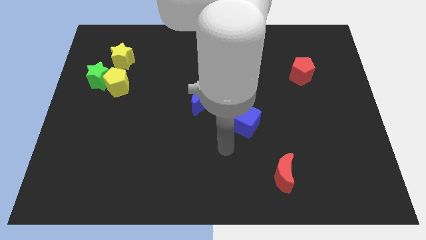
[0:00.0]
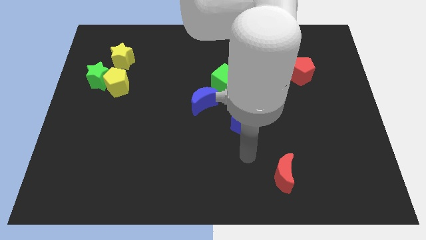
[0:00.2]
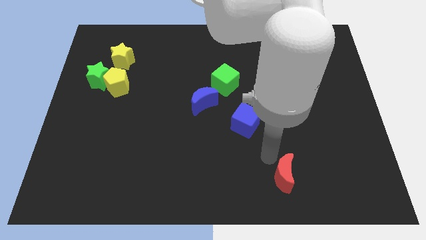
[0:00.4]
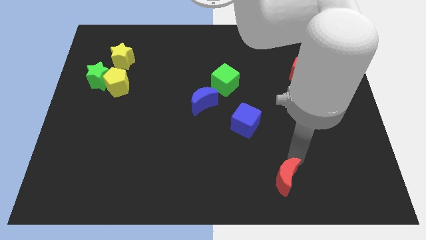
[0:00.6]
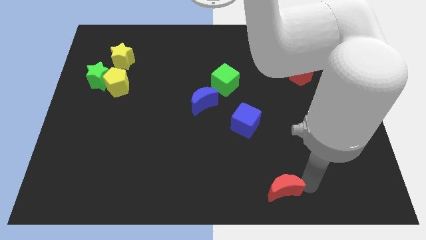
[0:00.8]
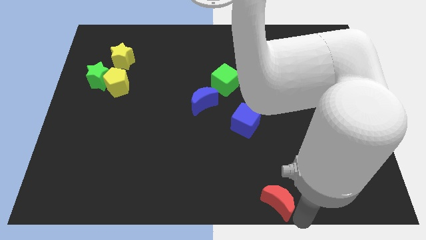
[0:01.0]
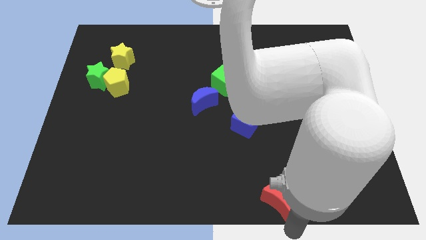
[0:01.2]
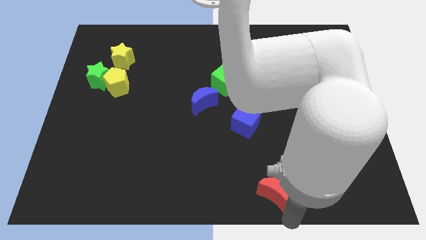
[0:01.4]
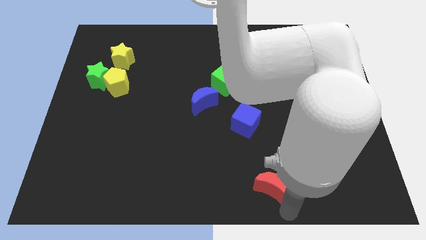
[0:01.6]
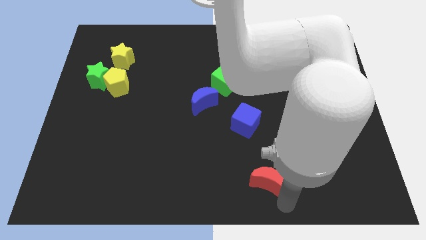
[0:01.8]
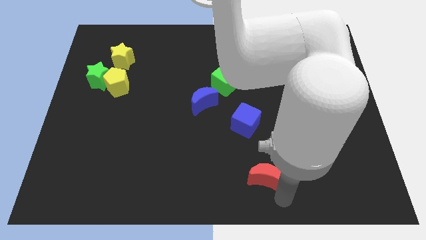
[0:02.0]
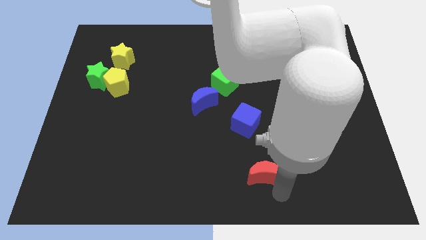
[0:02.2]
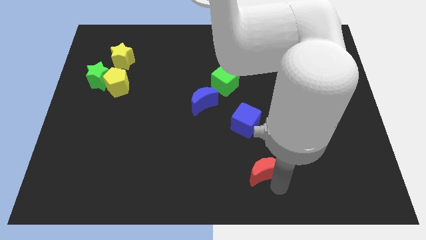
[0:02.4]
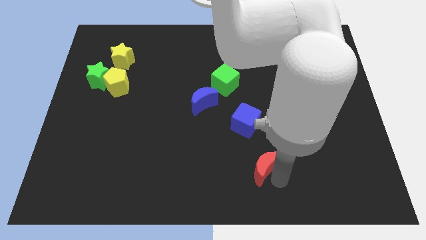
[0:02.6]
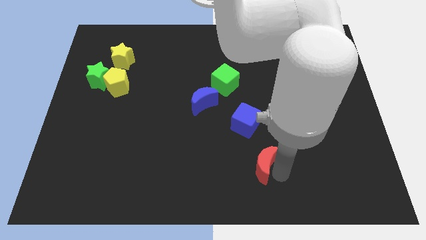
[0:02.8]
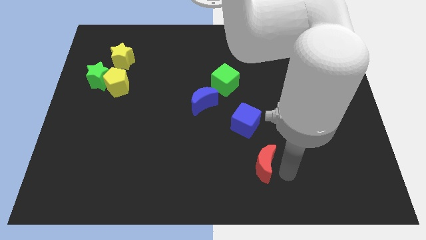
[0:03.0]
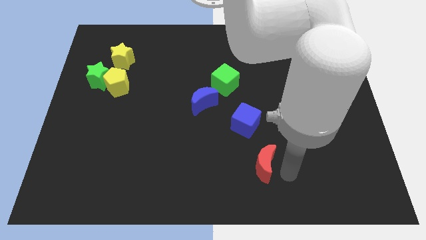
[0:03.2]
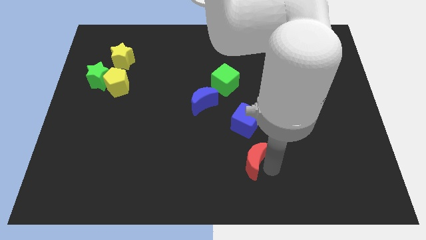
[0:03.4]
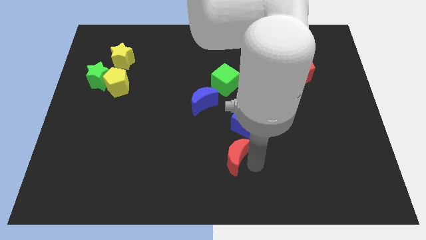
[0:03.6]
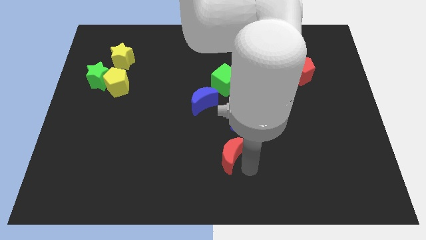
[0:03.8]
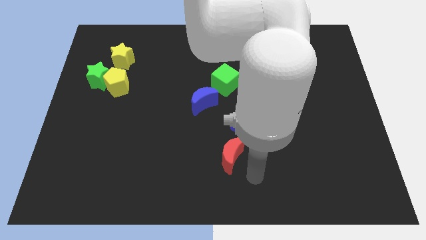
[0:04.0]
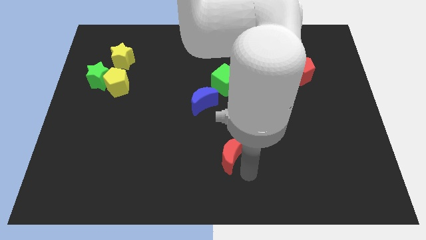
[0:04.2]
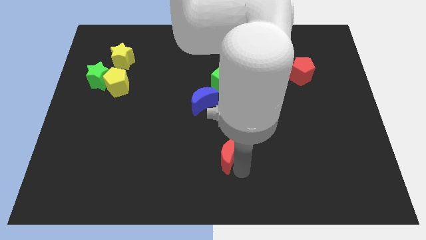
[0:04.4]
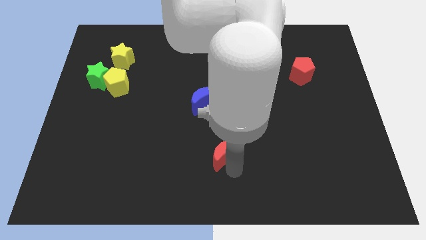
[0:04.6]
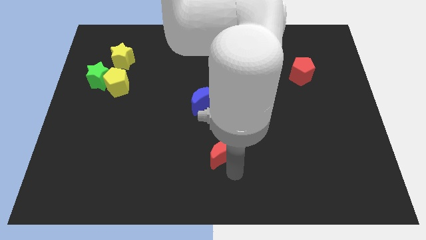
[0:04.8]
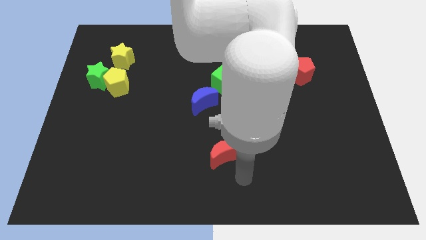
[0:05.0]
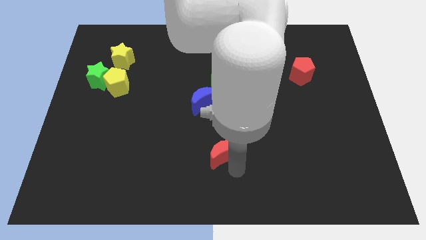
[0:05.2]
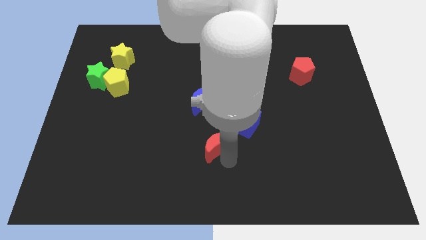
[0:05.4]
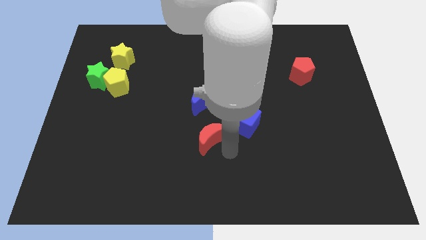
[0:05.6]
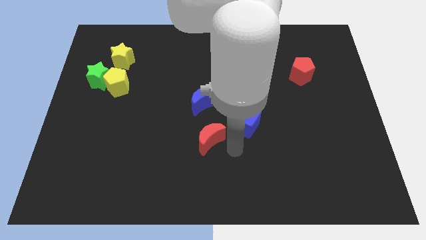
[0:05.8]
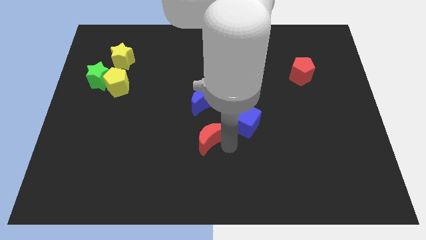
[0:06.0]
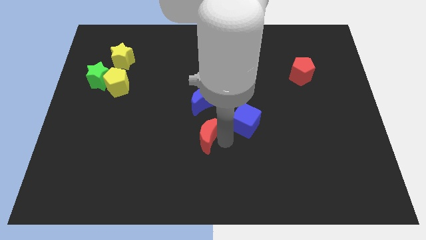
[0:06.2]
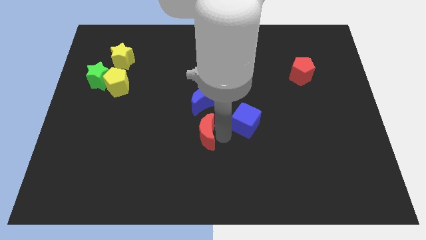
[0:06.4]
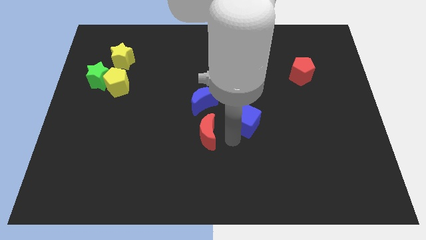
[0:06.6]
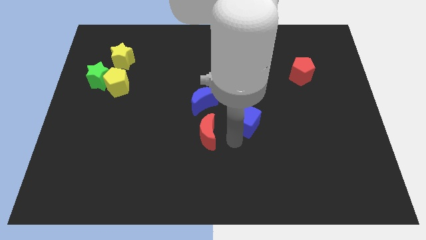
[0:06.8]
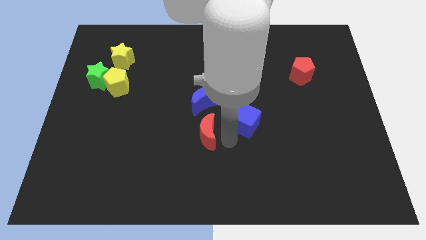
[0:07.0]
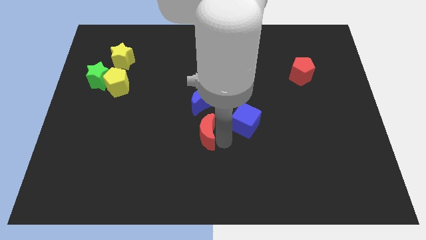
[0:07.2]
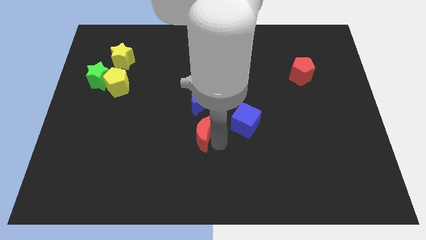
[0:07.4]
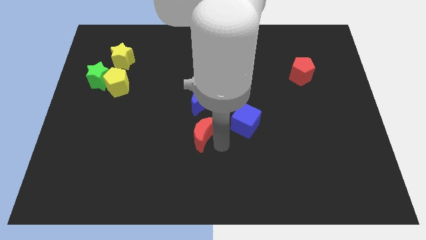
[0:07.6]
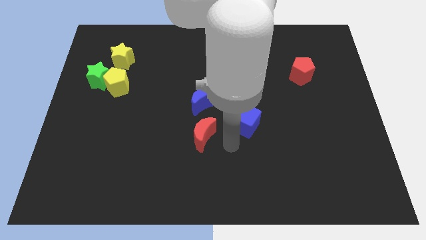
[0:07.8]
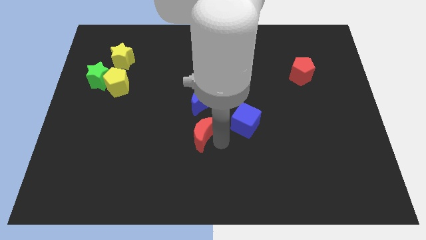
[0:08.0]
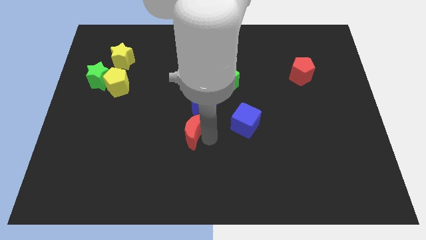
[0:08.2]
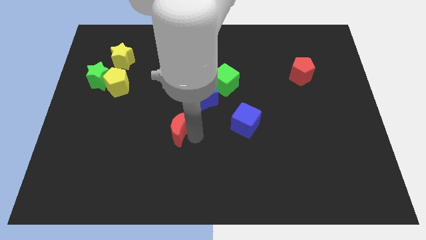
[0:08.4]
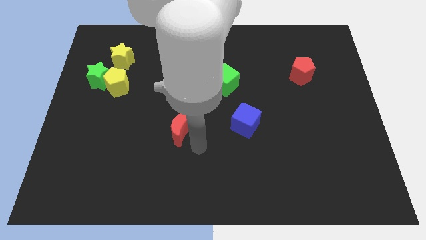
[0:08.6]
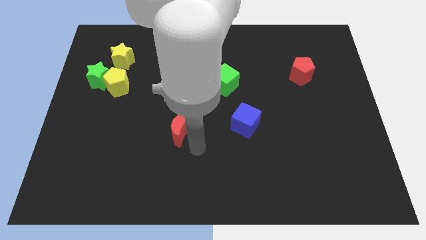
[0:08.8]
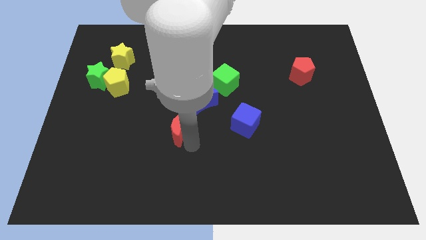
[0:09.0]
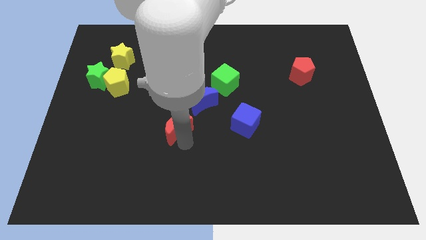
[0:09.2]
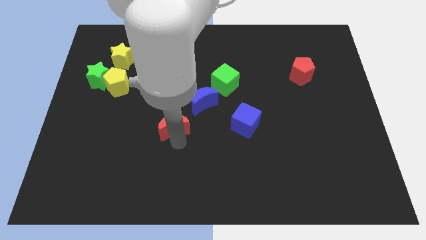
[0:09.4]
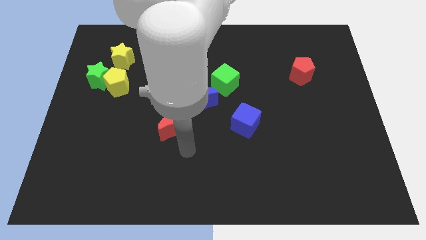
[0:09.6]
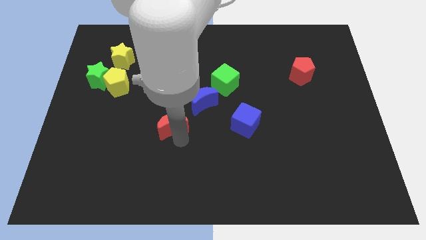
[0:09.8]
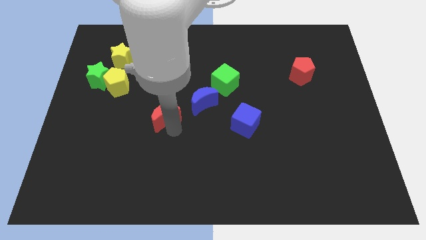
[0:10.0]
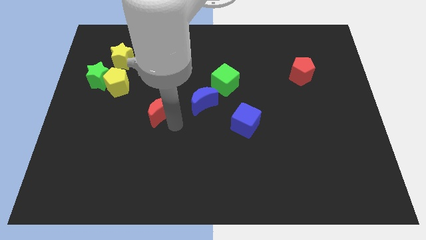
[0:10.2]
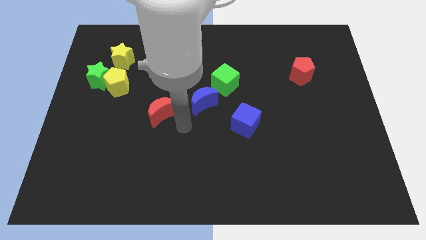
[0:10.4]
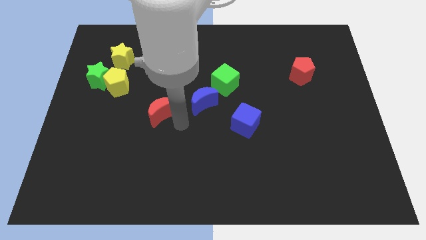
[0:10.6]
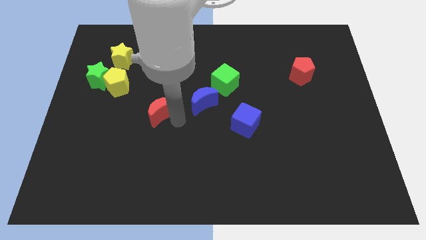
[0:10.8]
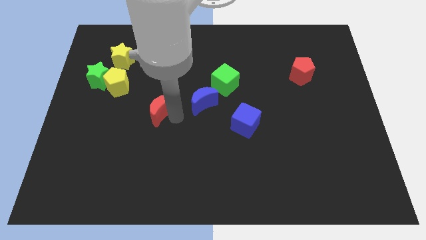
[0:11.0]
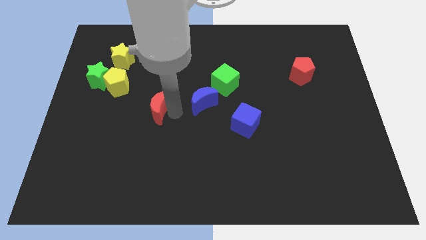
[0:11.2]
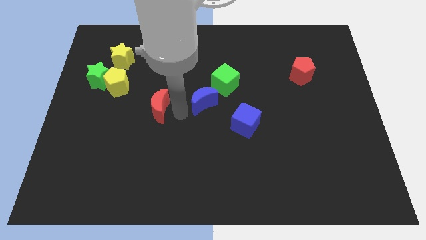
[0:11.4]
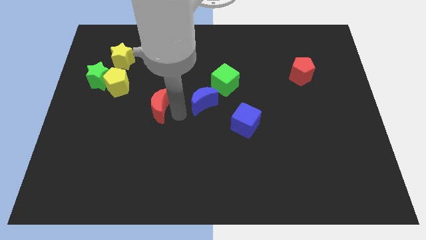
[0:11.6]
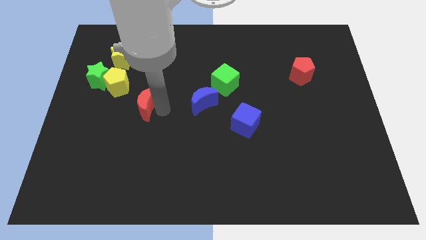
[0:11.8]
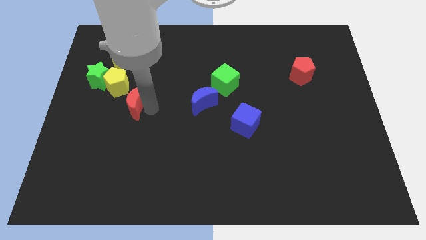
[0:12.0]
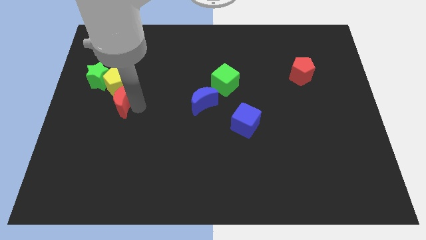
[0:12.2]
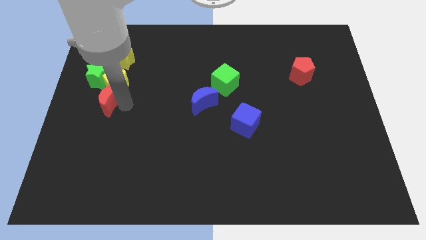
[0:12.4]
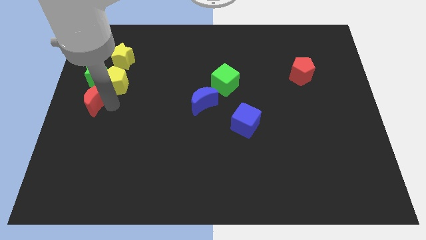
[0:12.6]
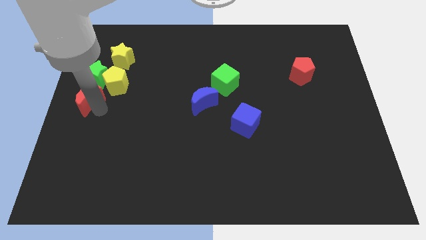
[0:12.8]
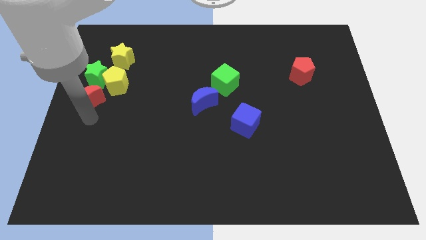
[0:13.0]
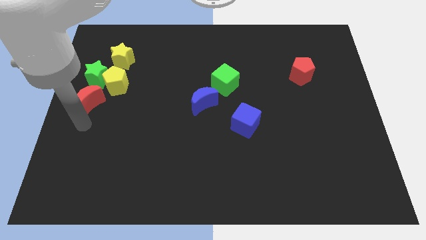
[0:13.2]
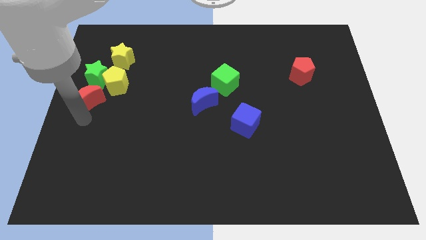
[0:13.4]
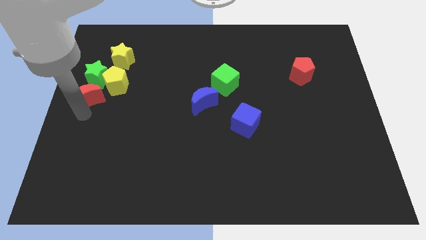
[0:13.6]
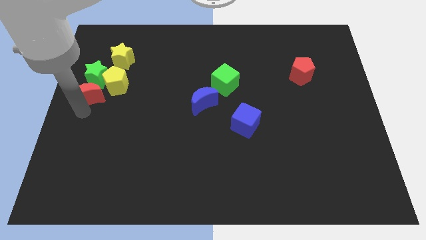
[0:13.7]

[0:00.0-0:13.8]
put the red moon towards the green star
